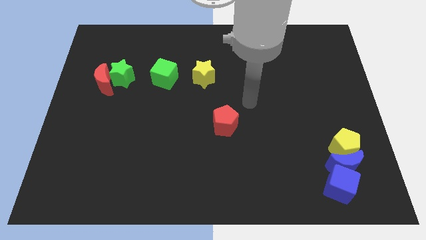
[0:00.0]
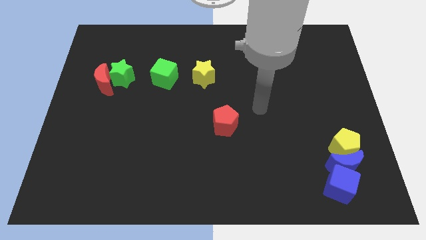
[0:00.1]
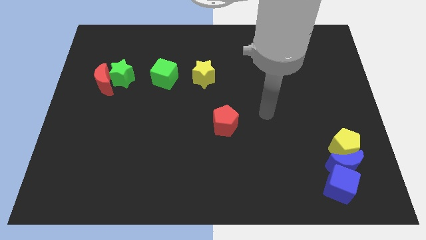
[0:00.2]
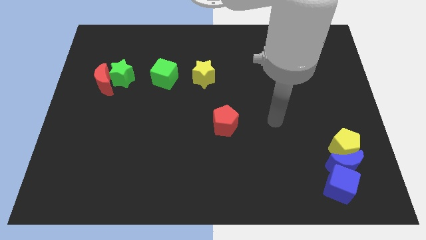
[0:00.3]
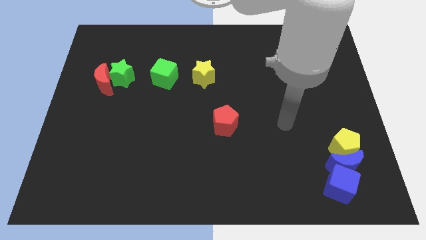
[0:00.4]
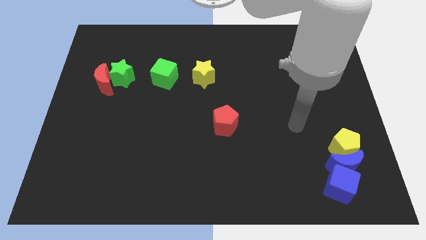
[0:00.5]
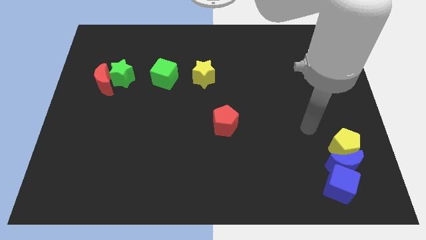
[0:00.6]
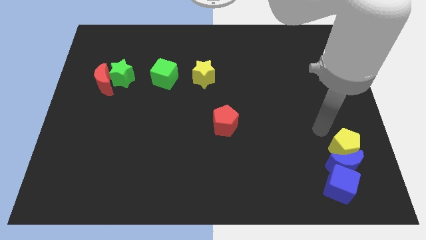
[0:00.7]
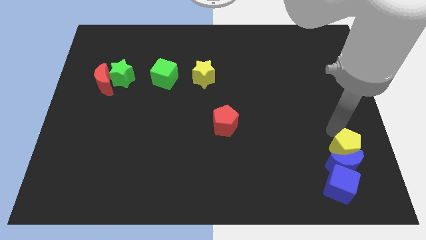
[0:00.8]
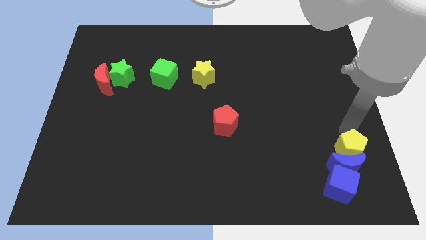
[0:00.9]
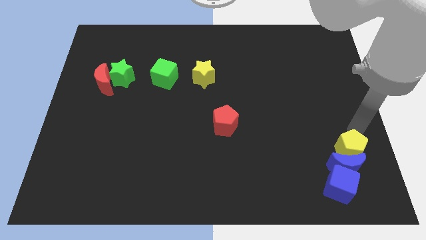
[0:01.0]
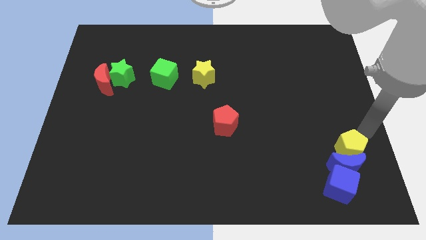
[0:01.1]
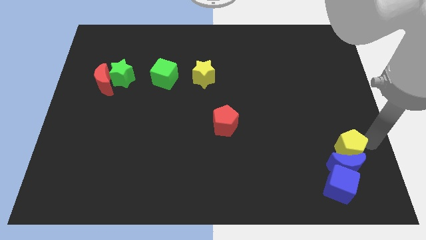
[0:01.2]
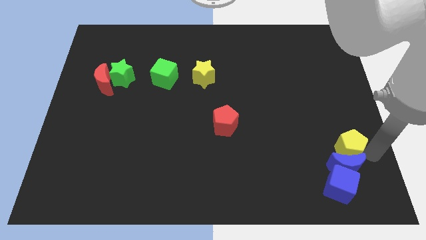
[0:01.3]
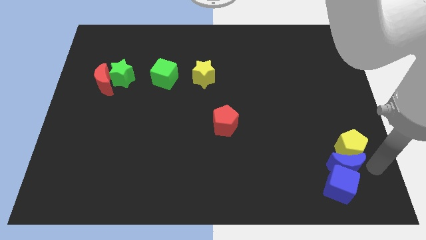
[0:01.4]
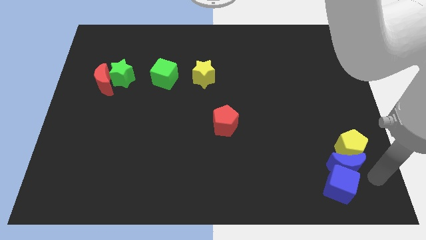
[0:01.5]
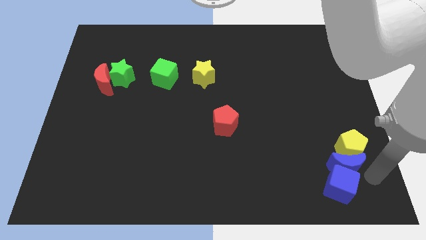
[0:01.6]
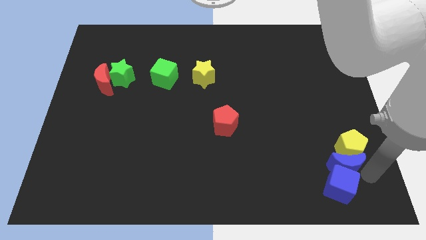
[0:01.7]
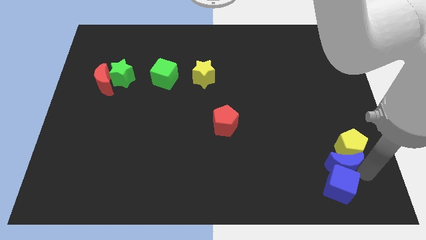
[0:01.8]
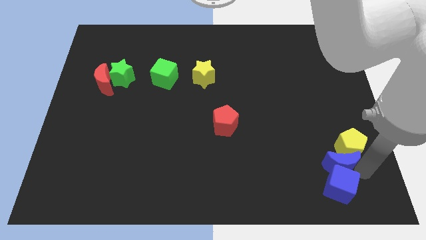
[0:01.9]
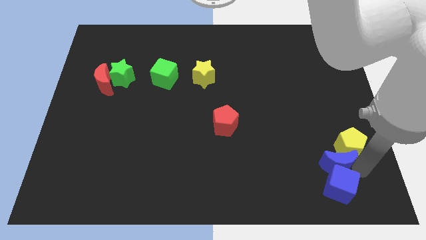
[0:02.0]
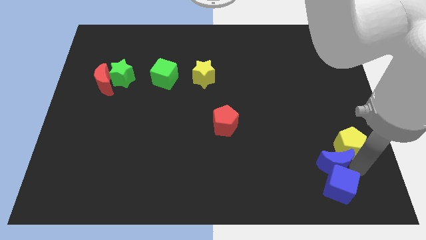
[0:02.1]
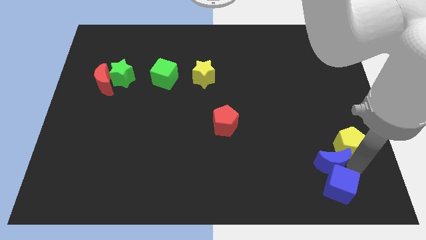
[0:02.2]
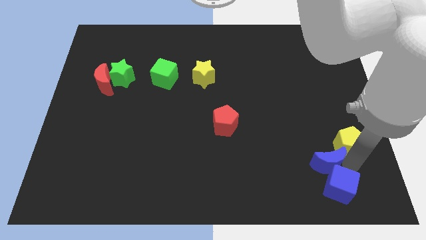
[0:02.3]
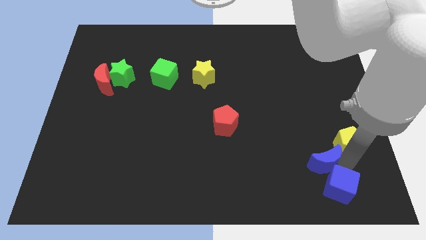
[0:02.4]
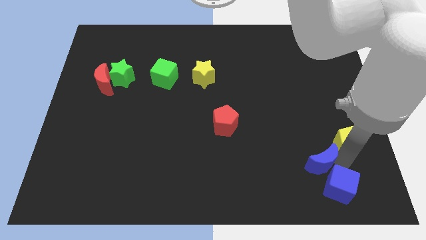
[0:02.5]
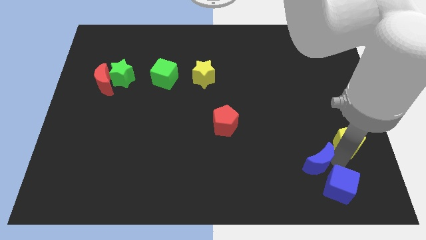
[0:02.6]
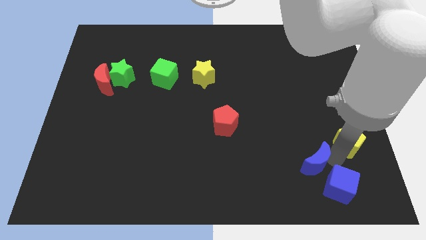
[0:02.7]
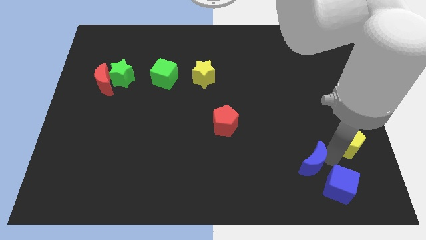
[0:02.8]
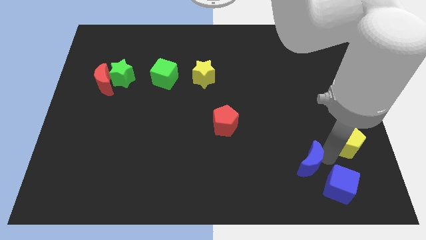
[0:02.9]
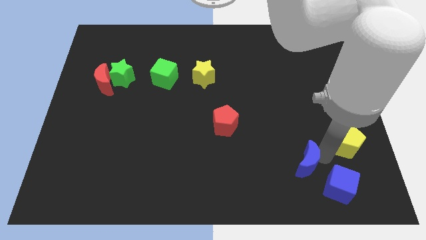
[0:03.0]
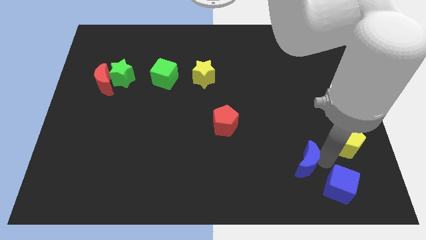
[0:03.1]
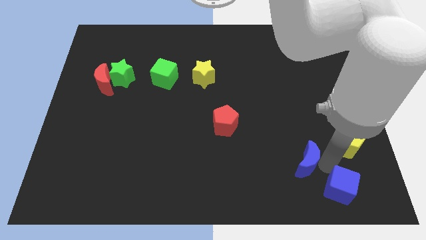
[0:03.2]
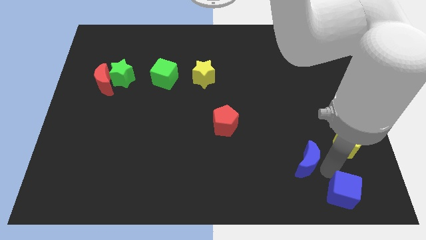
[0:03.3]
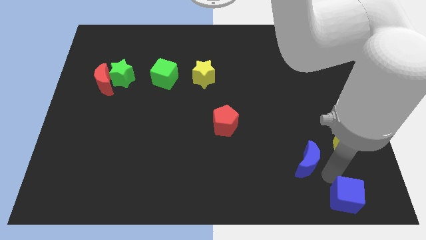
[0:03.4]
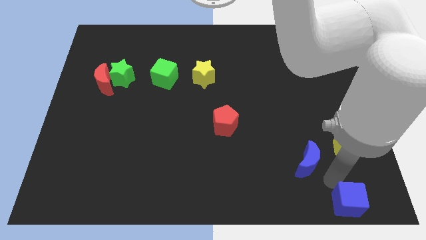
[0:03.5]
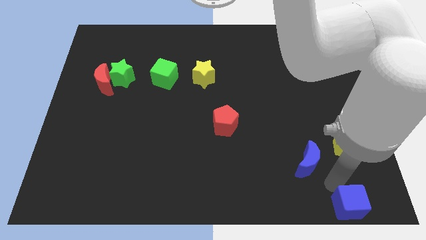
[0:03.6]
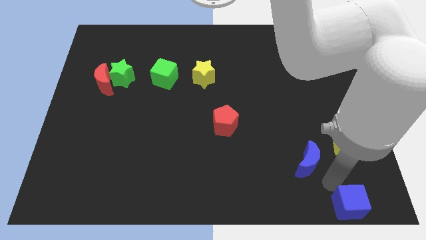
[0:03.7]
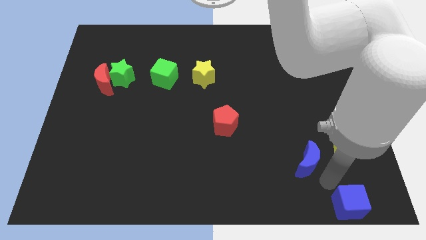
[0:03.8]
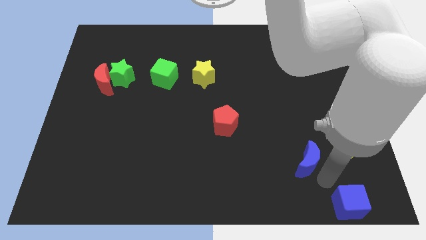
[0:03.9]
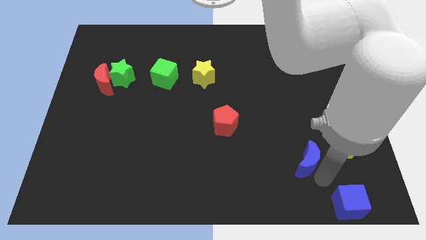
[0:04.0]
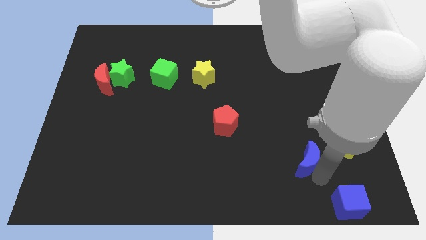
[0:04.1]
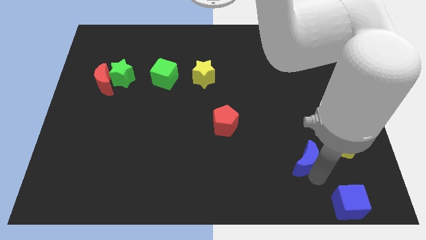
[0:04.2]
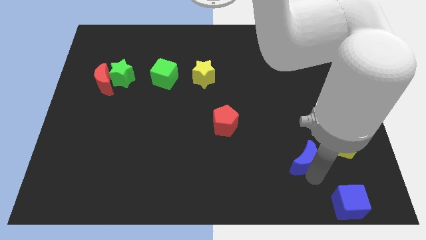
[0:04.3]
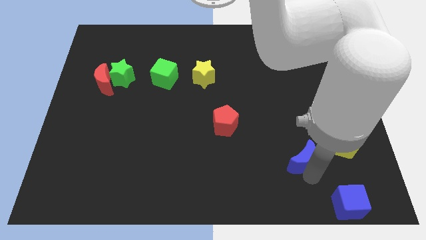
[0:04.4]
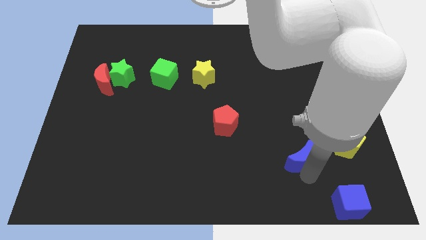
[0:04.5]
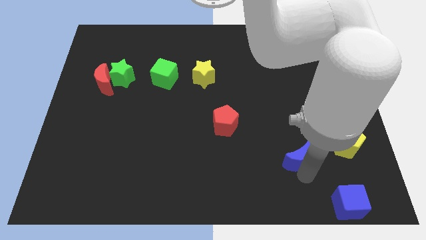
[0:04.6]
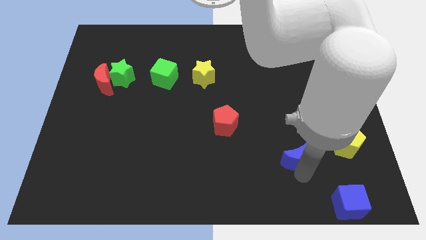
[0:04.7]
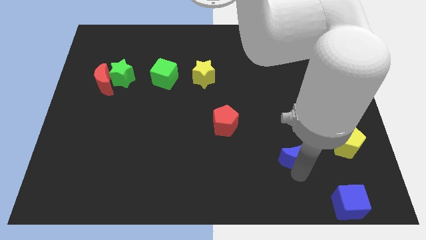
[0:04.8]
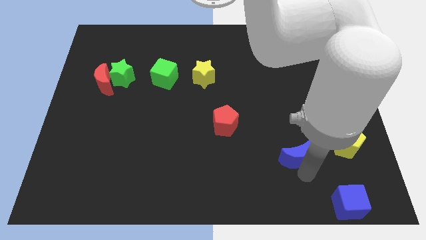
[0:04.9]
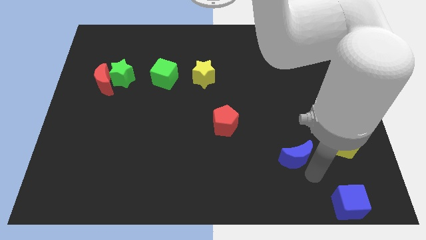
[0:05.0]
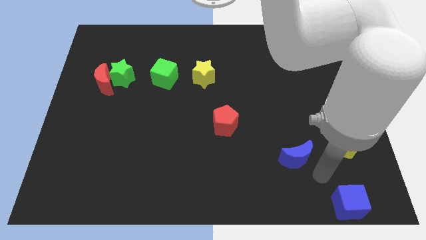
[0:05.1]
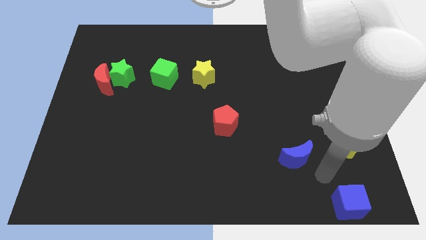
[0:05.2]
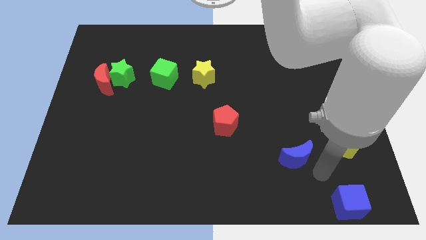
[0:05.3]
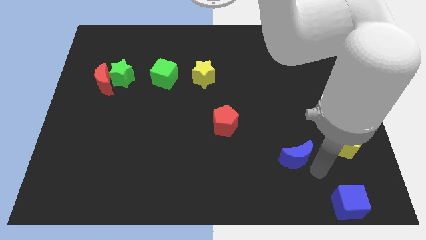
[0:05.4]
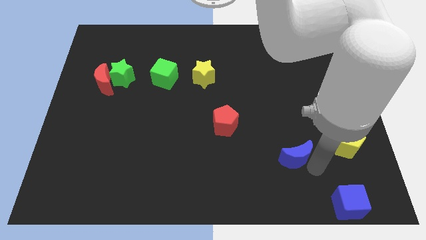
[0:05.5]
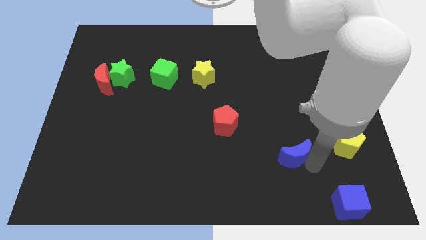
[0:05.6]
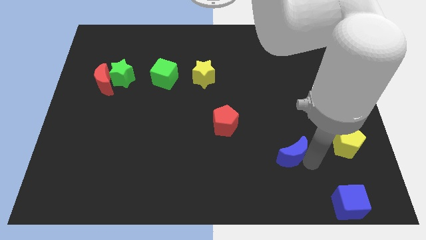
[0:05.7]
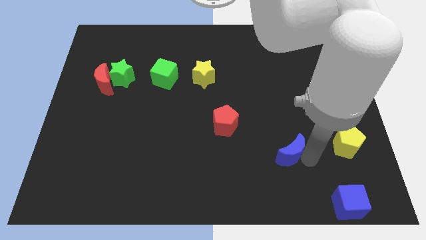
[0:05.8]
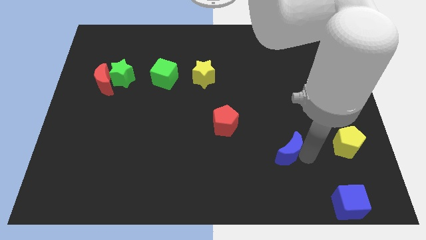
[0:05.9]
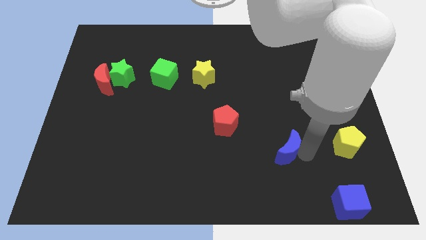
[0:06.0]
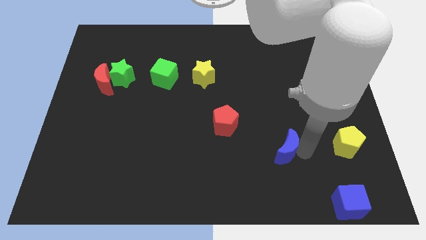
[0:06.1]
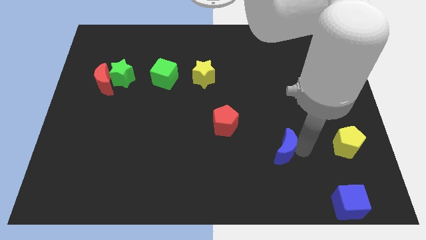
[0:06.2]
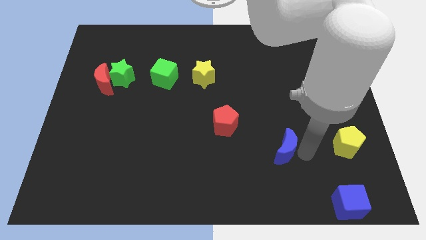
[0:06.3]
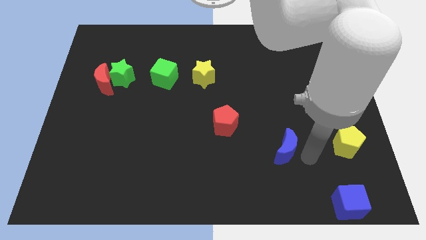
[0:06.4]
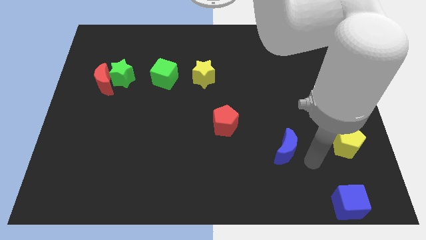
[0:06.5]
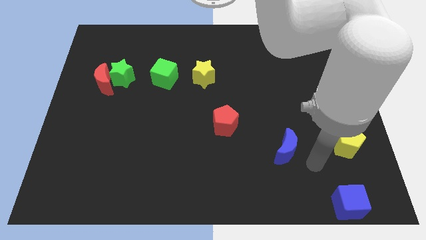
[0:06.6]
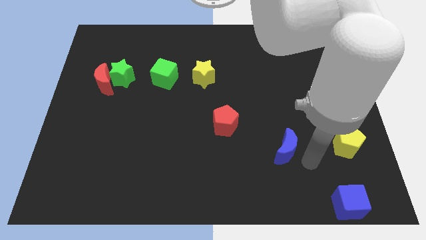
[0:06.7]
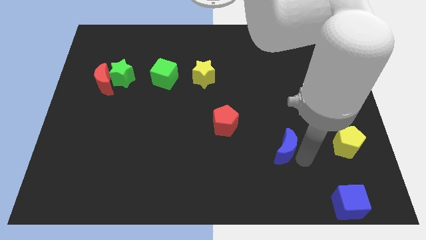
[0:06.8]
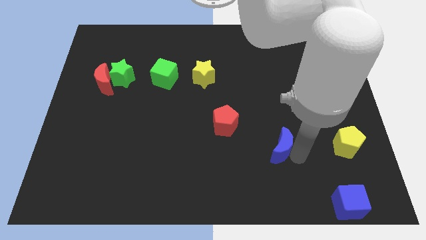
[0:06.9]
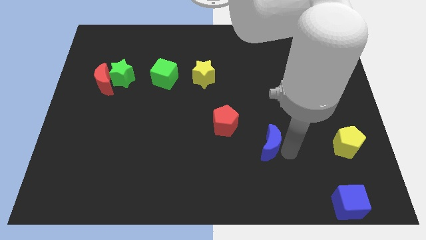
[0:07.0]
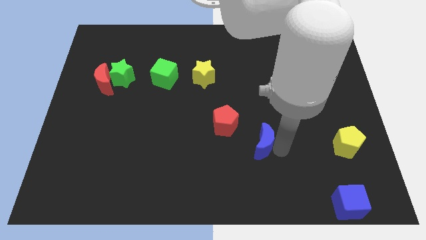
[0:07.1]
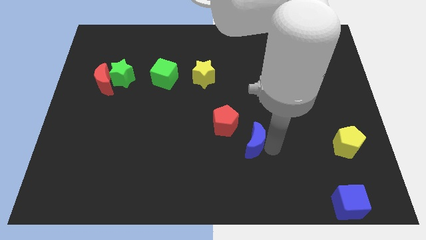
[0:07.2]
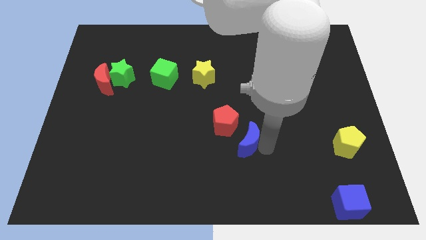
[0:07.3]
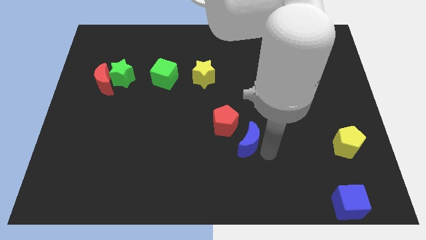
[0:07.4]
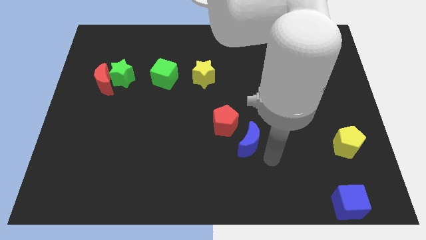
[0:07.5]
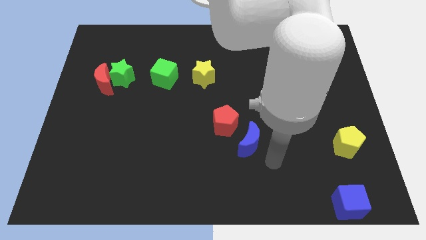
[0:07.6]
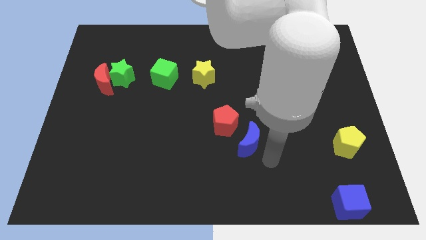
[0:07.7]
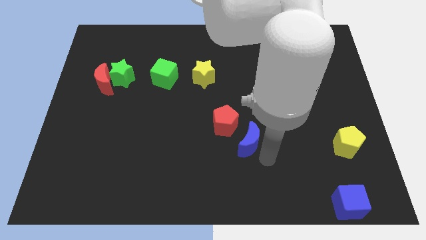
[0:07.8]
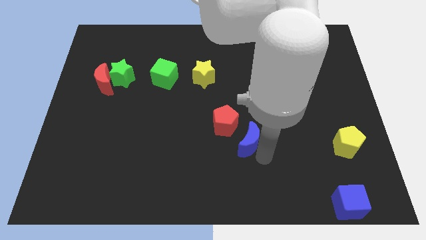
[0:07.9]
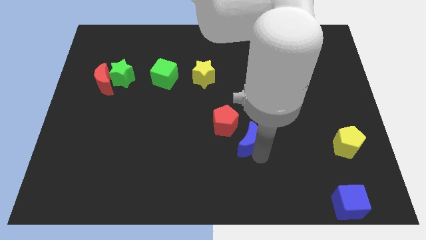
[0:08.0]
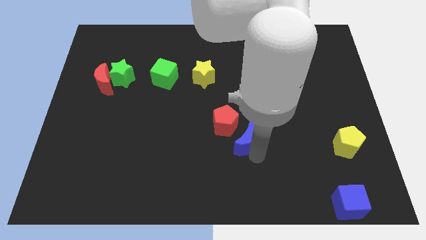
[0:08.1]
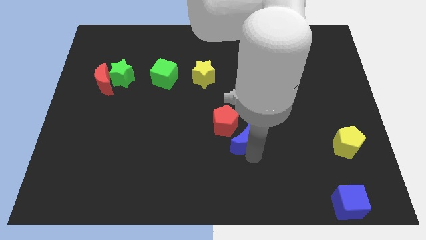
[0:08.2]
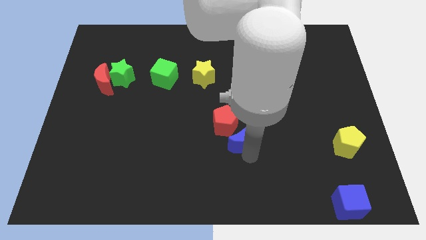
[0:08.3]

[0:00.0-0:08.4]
slide the blue moon next to the red pentagon
